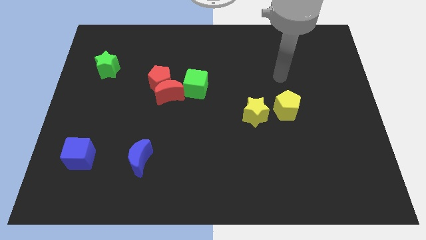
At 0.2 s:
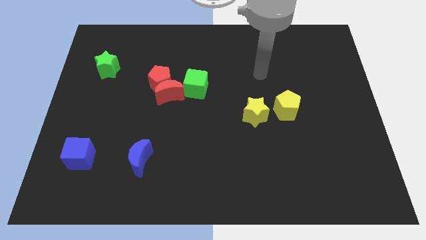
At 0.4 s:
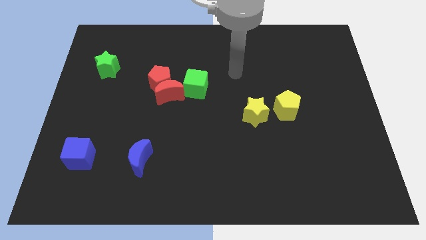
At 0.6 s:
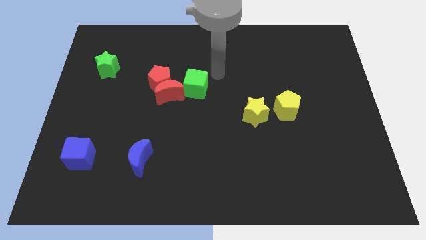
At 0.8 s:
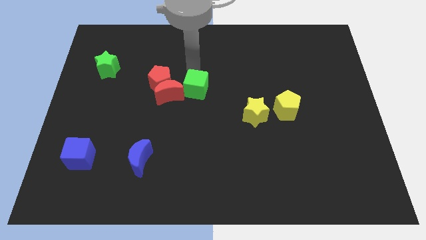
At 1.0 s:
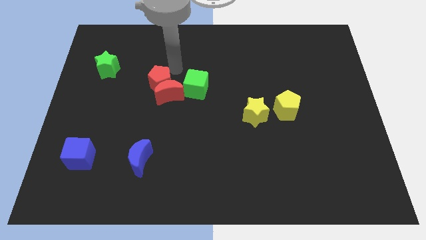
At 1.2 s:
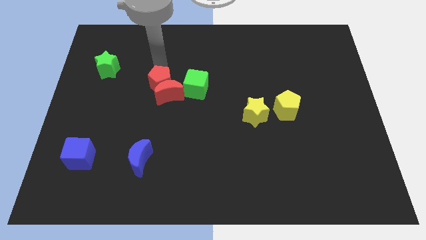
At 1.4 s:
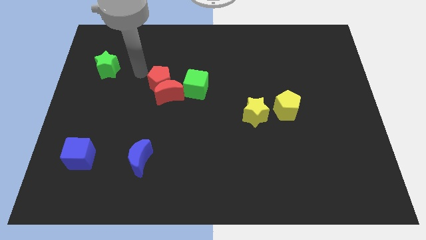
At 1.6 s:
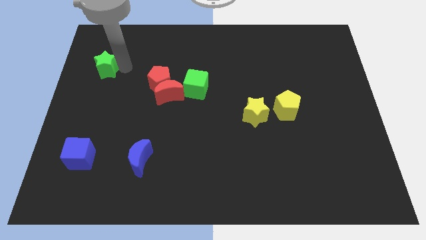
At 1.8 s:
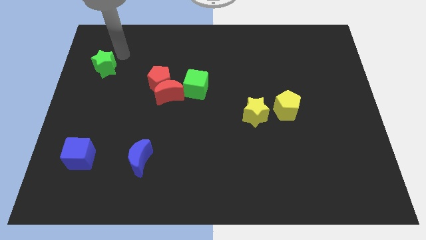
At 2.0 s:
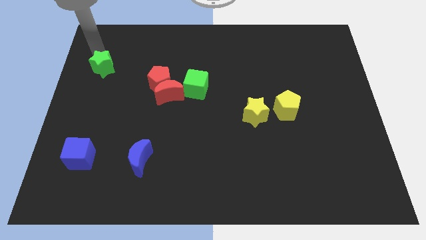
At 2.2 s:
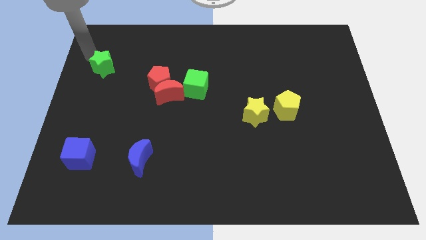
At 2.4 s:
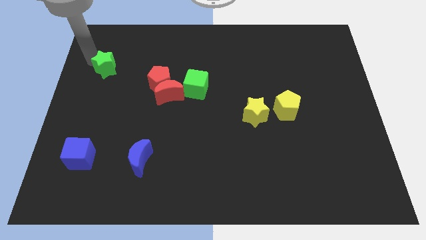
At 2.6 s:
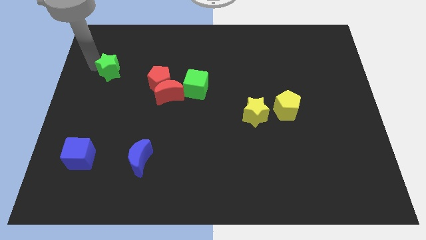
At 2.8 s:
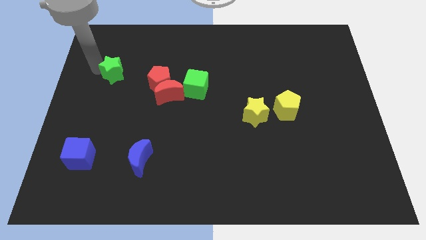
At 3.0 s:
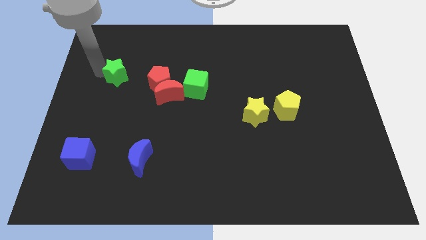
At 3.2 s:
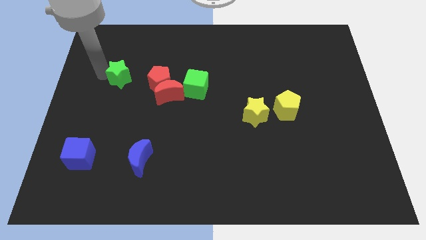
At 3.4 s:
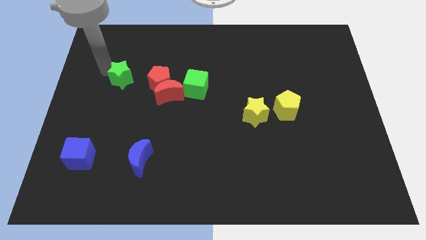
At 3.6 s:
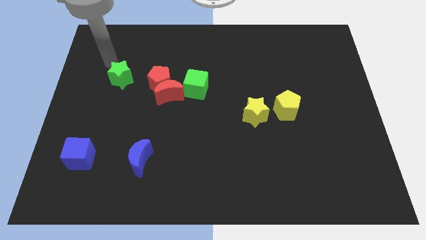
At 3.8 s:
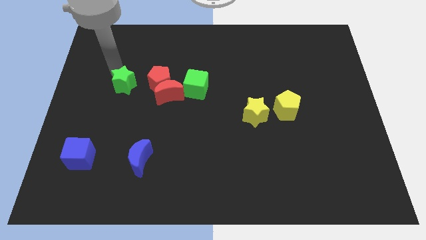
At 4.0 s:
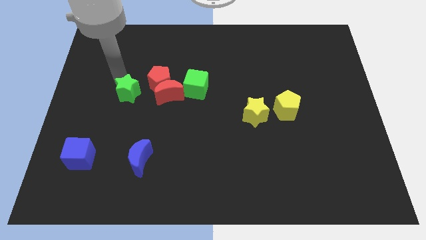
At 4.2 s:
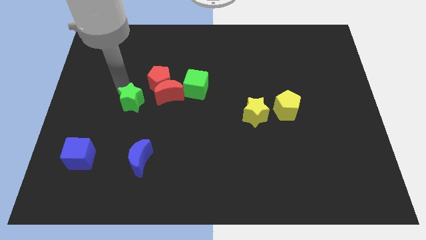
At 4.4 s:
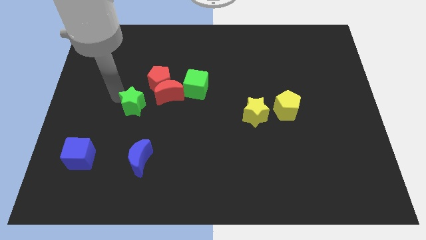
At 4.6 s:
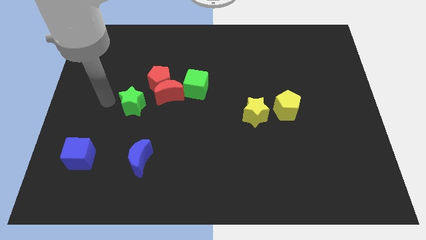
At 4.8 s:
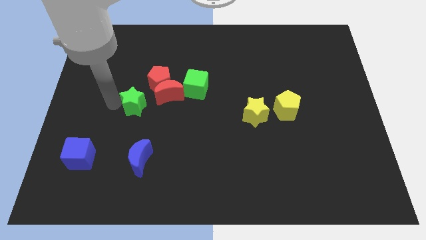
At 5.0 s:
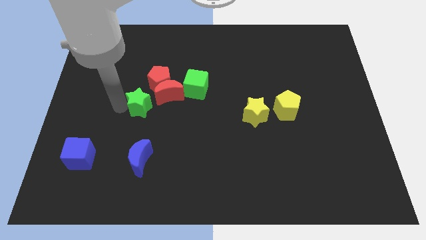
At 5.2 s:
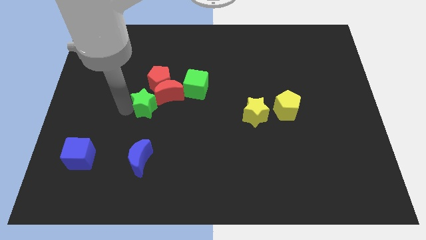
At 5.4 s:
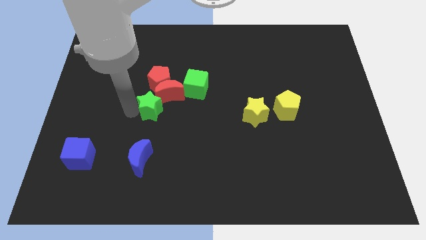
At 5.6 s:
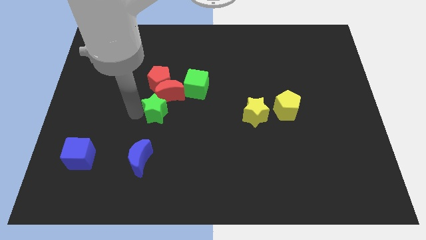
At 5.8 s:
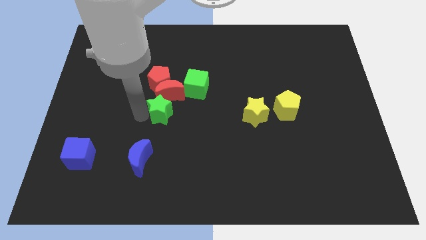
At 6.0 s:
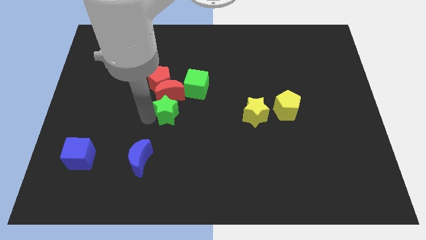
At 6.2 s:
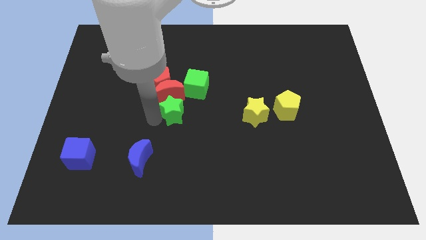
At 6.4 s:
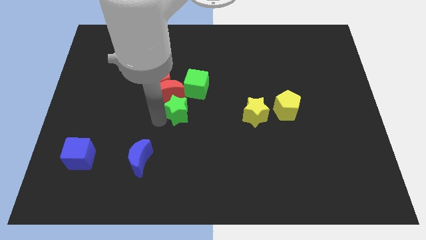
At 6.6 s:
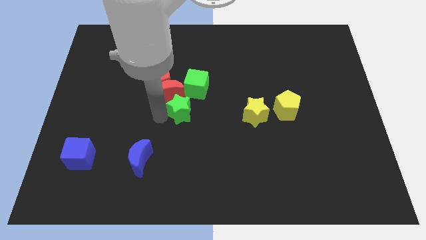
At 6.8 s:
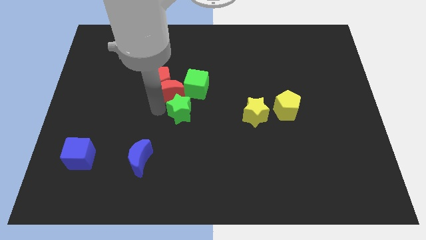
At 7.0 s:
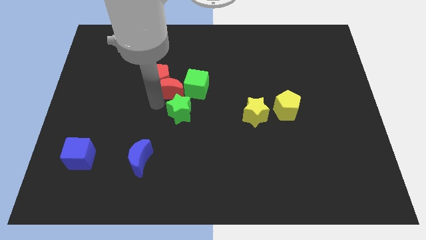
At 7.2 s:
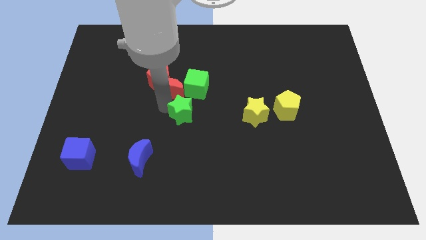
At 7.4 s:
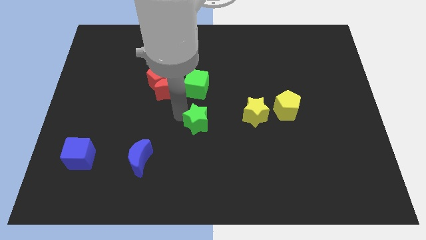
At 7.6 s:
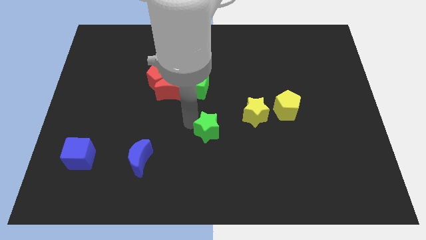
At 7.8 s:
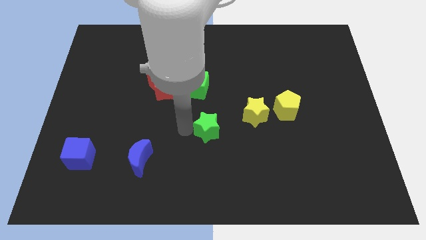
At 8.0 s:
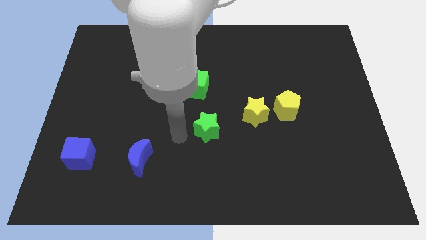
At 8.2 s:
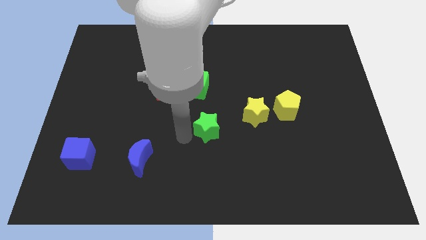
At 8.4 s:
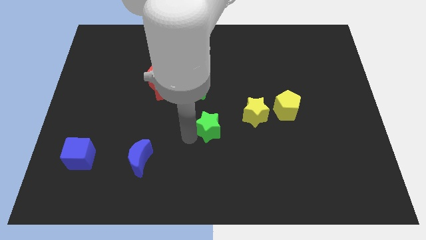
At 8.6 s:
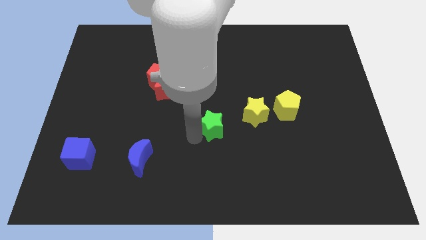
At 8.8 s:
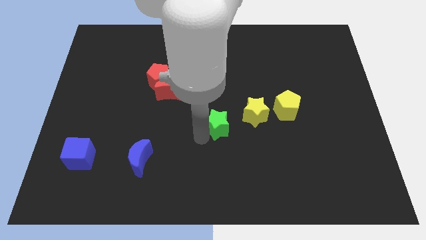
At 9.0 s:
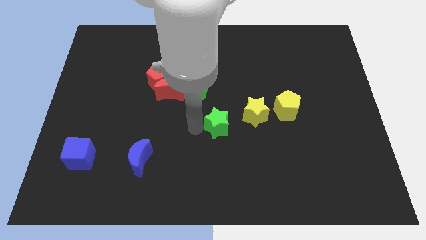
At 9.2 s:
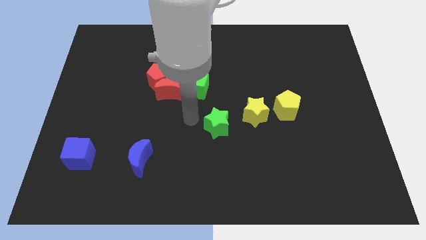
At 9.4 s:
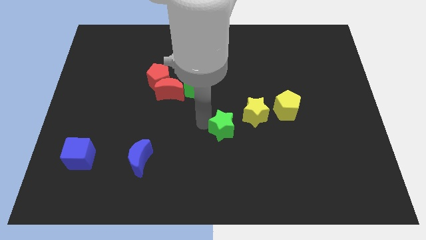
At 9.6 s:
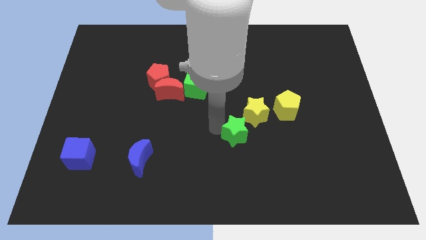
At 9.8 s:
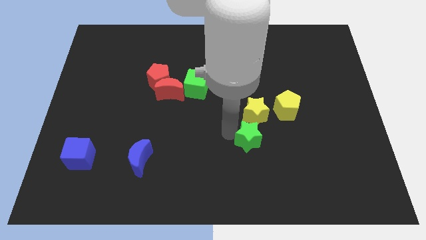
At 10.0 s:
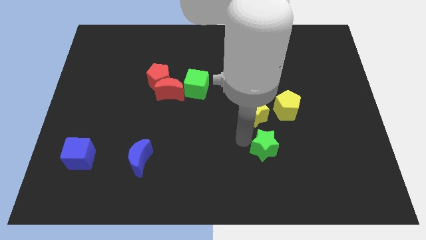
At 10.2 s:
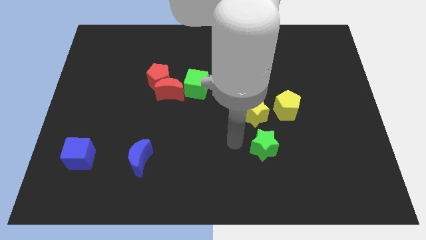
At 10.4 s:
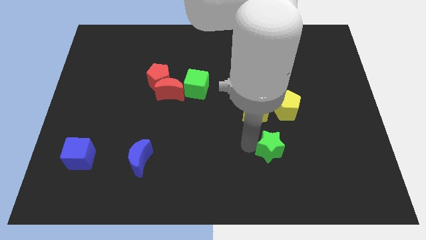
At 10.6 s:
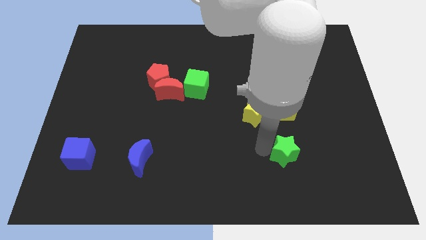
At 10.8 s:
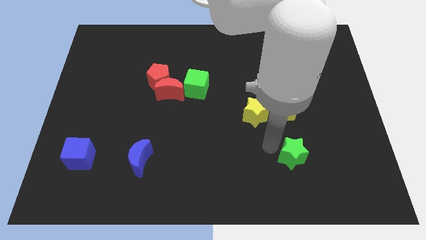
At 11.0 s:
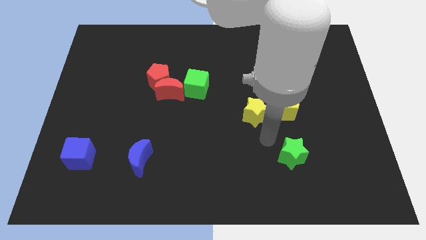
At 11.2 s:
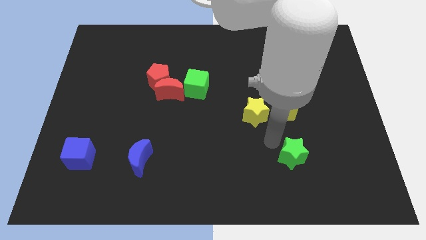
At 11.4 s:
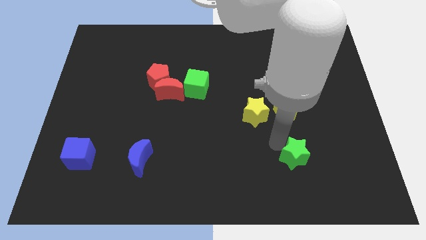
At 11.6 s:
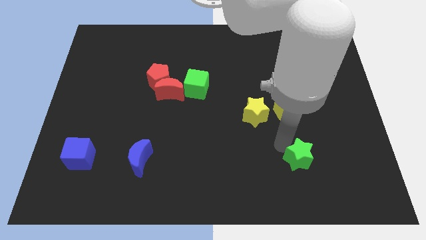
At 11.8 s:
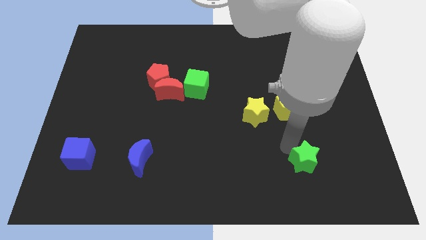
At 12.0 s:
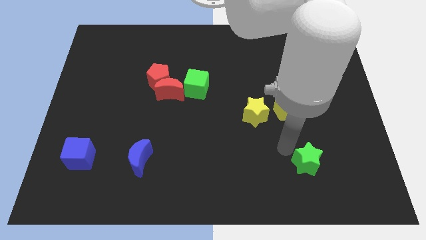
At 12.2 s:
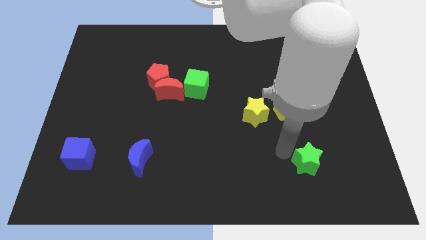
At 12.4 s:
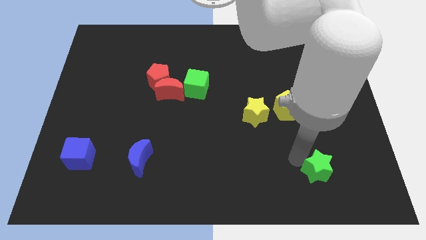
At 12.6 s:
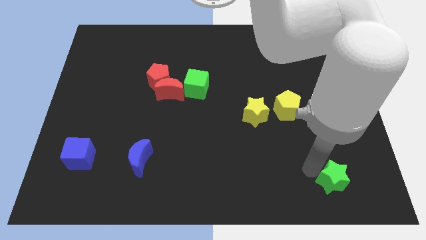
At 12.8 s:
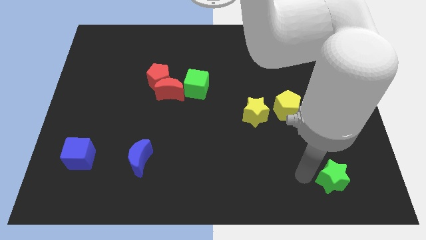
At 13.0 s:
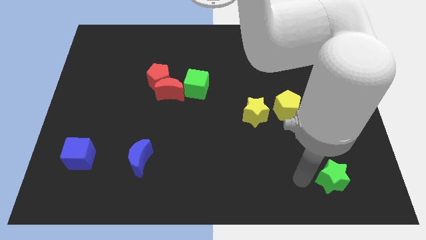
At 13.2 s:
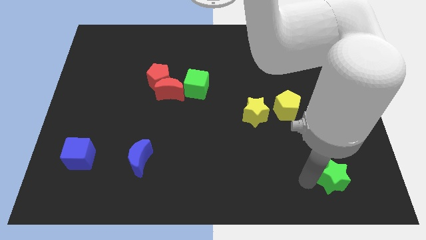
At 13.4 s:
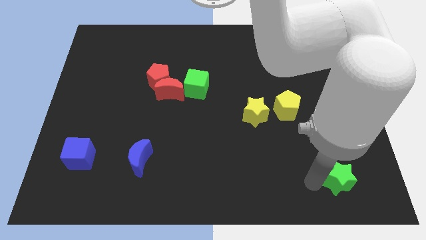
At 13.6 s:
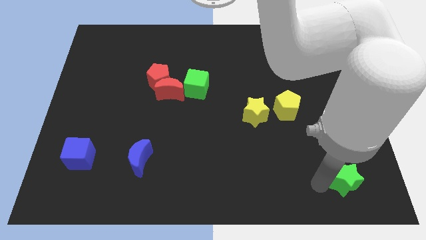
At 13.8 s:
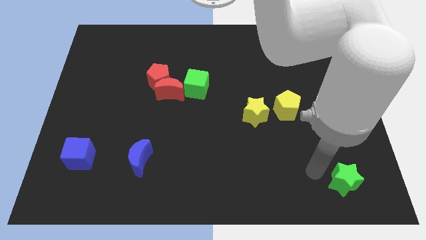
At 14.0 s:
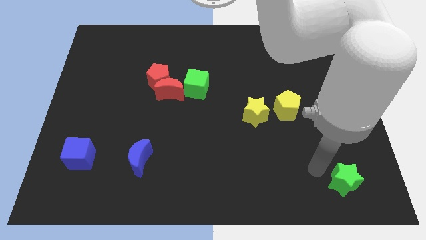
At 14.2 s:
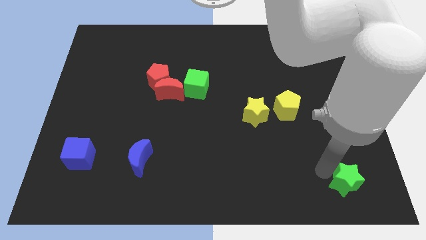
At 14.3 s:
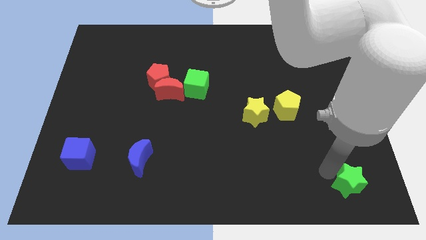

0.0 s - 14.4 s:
put the green star to the bottom right
